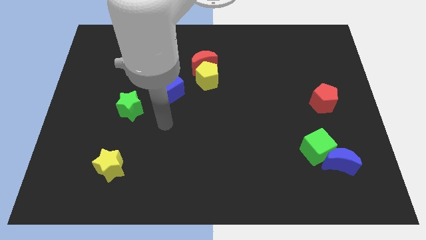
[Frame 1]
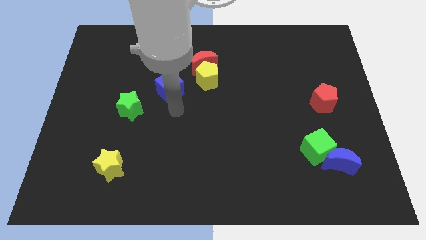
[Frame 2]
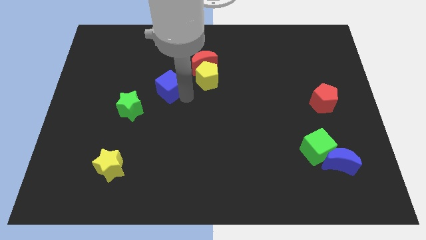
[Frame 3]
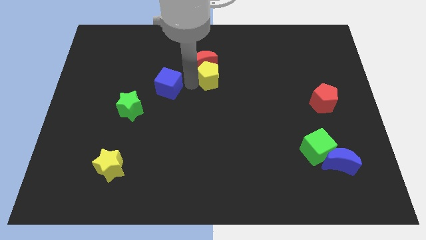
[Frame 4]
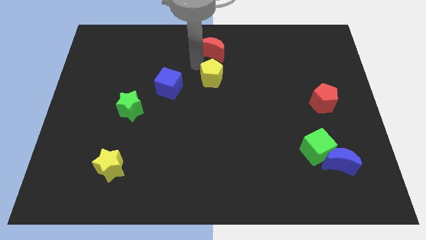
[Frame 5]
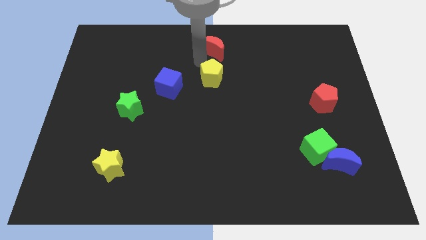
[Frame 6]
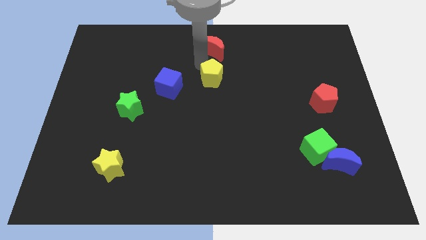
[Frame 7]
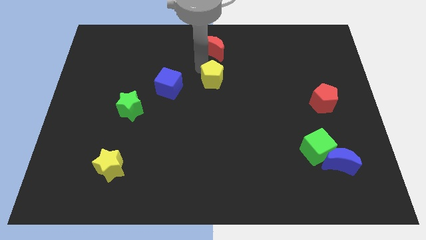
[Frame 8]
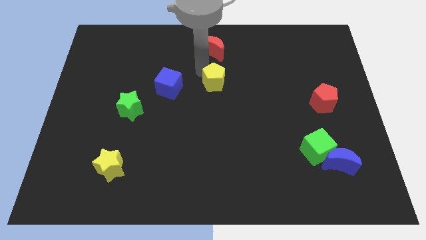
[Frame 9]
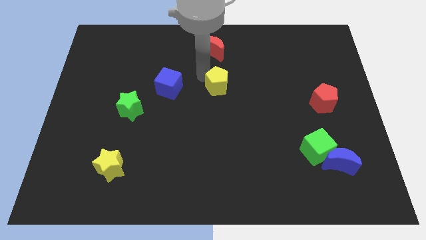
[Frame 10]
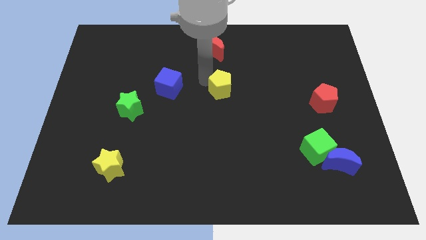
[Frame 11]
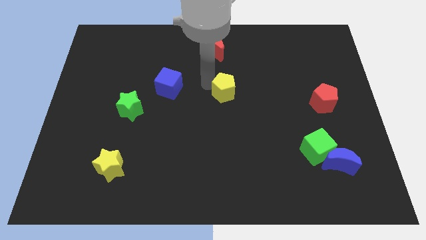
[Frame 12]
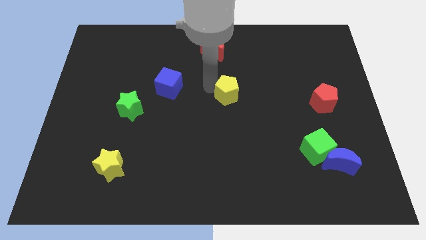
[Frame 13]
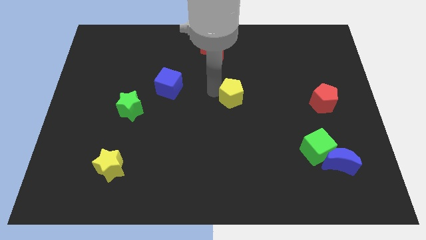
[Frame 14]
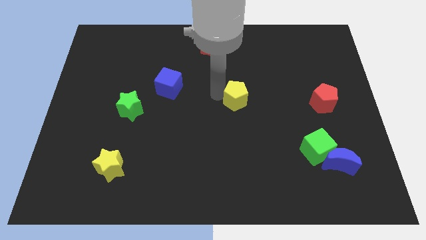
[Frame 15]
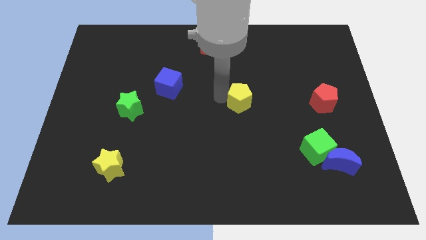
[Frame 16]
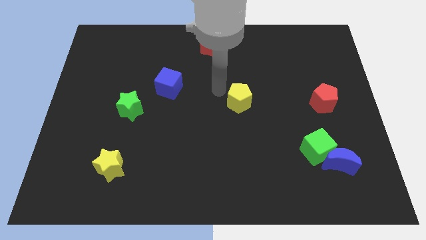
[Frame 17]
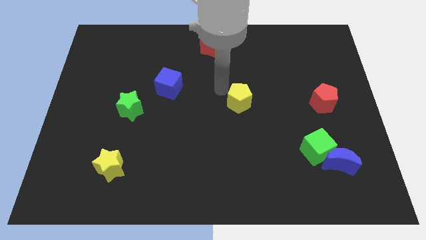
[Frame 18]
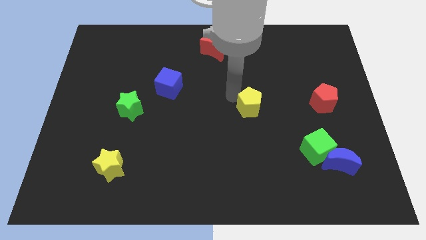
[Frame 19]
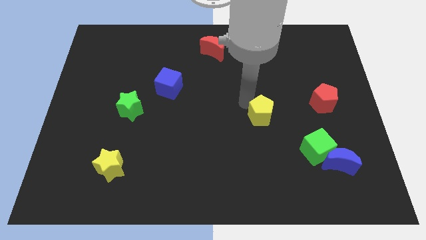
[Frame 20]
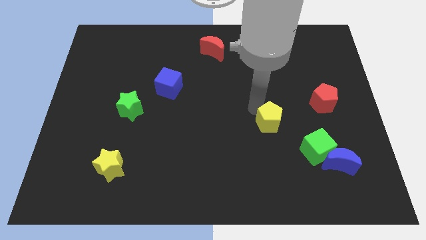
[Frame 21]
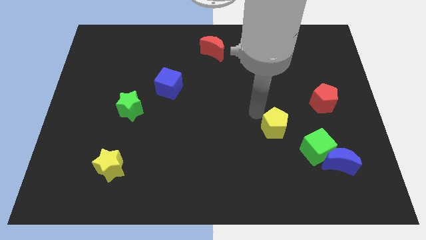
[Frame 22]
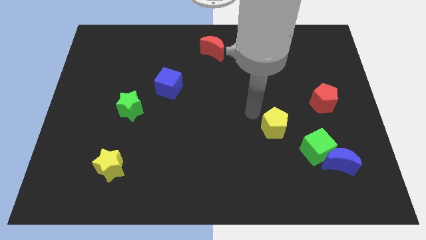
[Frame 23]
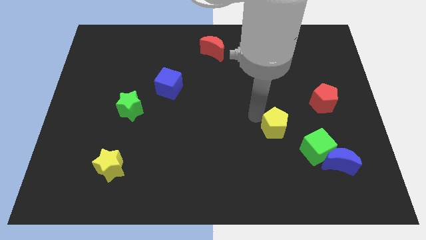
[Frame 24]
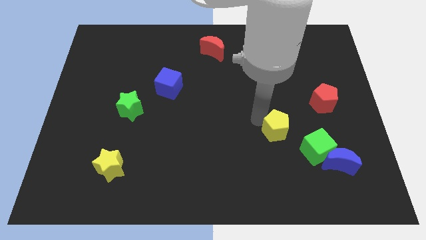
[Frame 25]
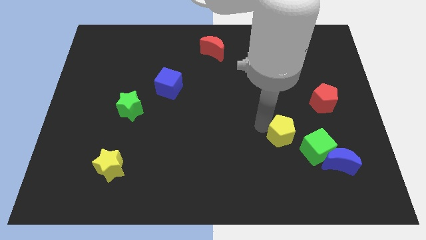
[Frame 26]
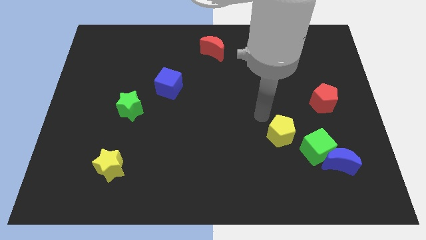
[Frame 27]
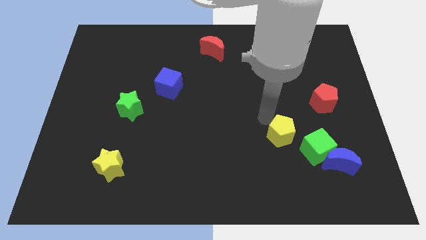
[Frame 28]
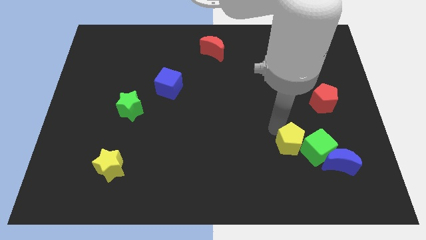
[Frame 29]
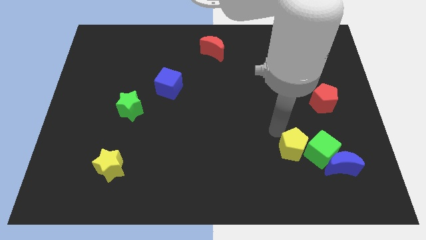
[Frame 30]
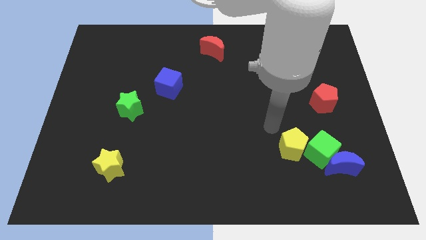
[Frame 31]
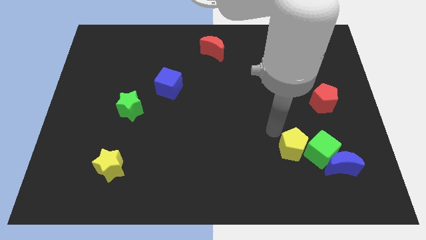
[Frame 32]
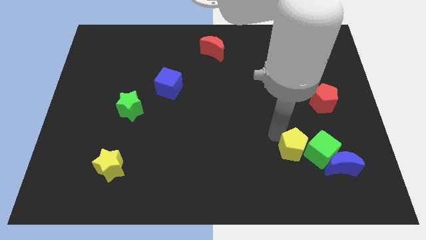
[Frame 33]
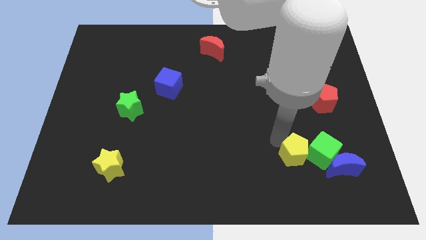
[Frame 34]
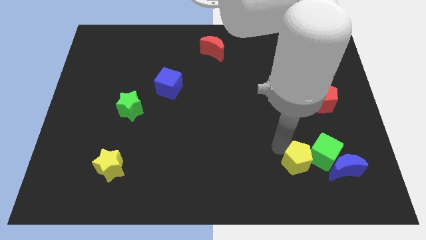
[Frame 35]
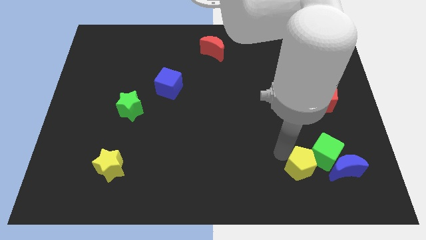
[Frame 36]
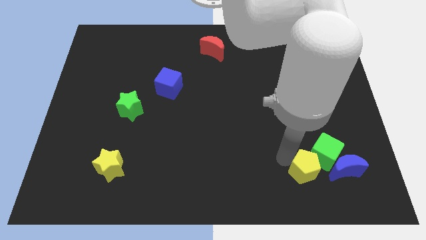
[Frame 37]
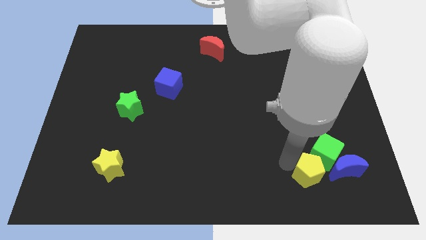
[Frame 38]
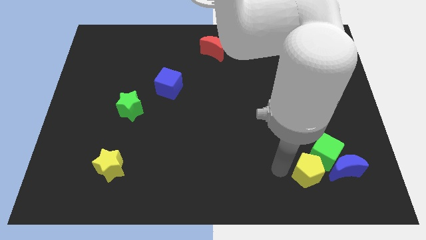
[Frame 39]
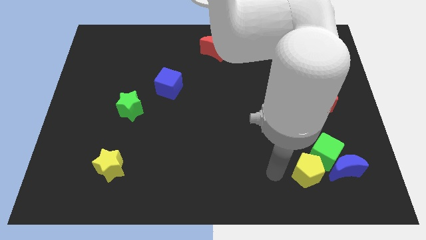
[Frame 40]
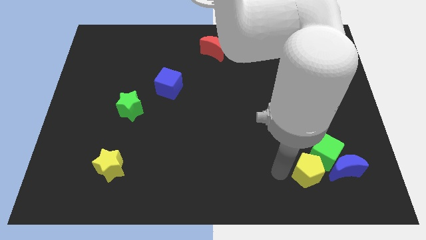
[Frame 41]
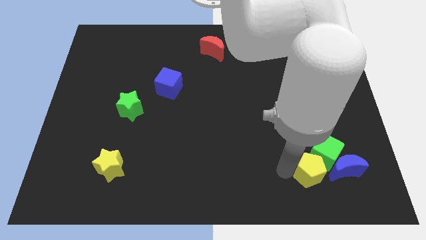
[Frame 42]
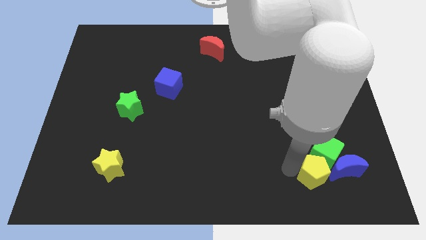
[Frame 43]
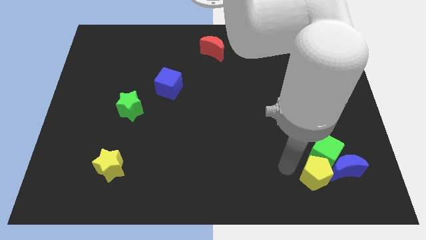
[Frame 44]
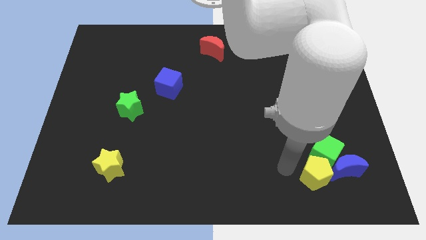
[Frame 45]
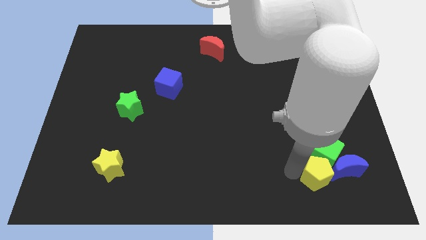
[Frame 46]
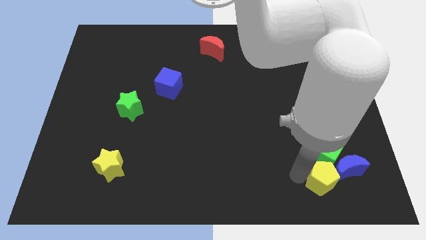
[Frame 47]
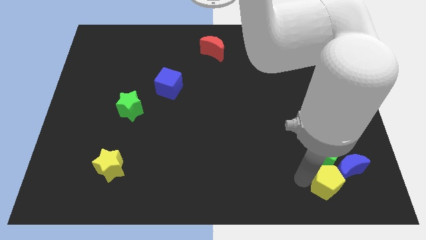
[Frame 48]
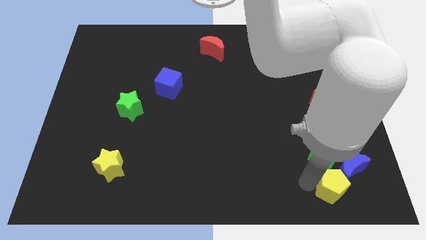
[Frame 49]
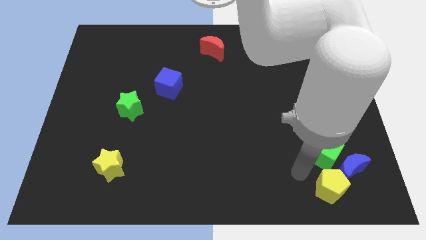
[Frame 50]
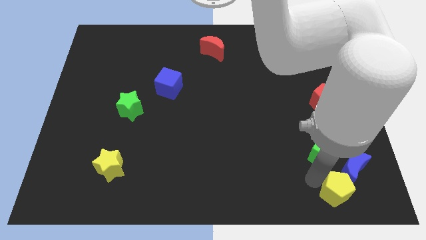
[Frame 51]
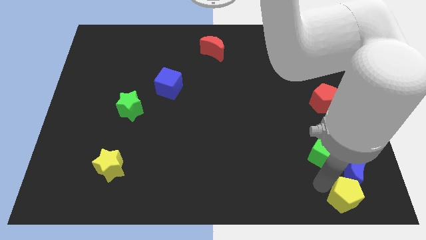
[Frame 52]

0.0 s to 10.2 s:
push the yellow pentagon to the bottom right of the board

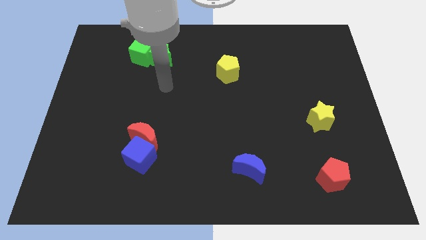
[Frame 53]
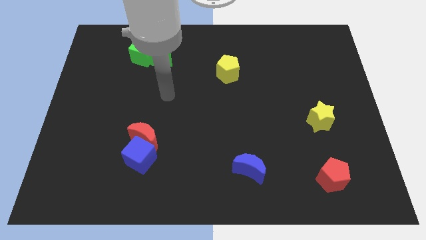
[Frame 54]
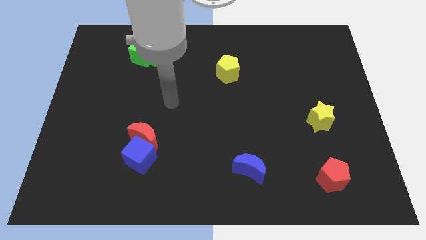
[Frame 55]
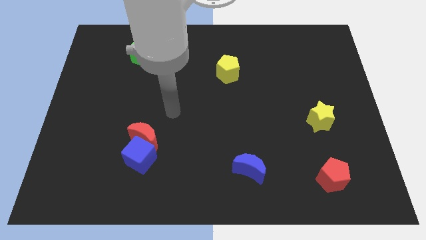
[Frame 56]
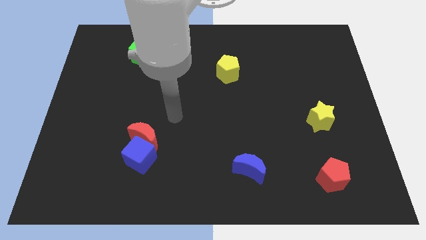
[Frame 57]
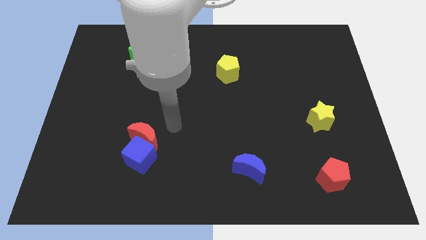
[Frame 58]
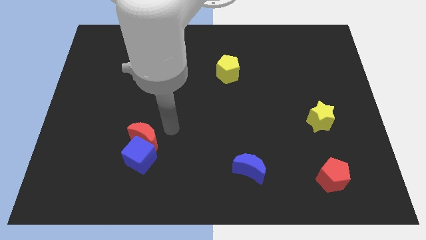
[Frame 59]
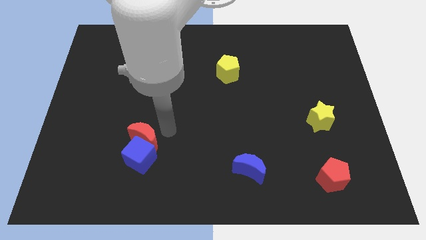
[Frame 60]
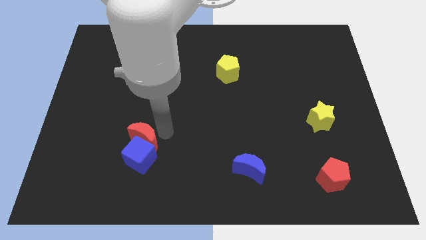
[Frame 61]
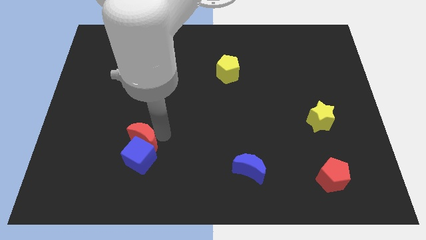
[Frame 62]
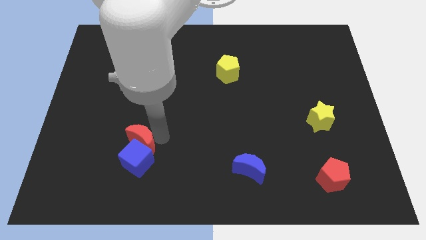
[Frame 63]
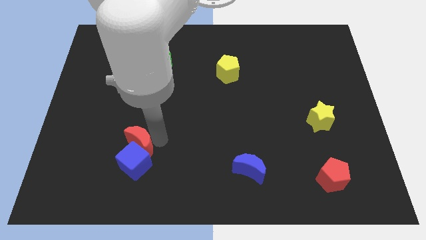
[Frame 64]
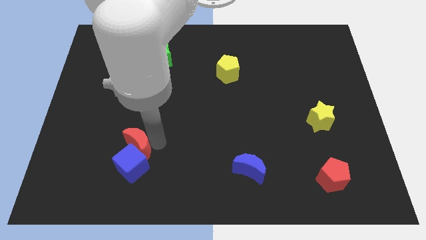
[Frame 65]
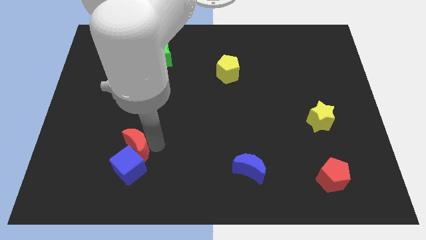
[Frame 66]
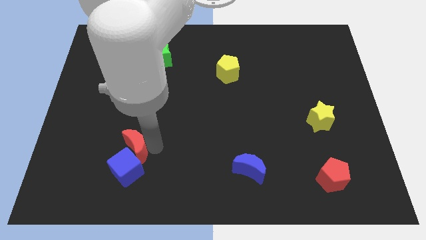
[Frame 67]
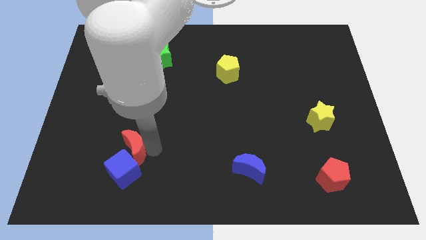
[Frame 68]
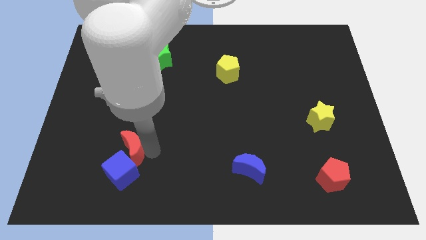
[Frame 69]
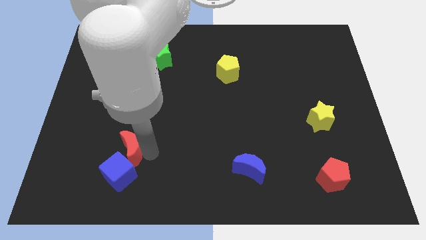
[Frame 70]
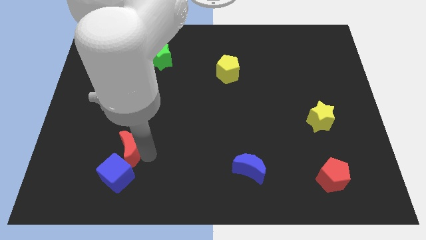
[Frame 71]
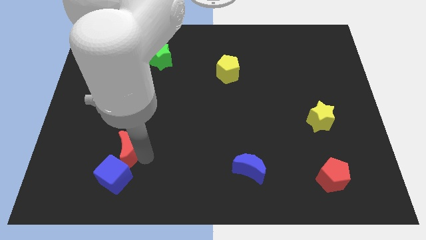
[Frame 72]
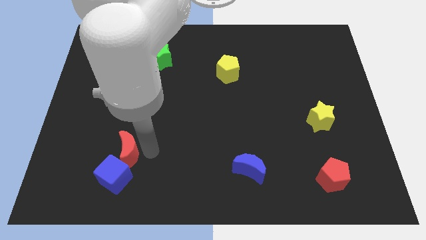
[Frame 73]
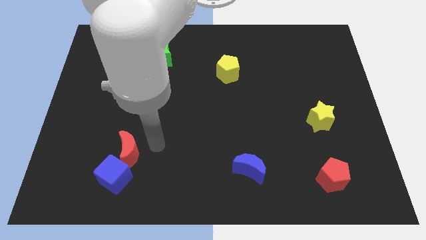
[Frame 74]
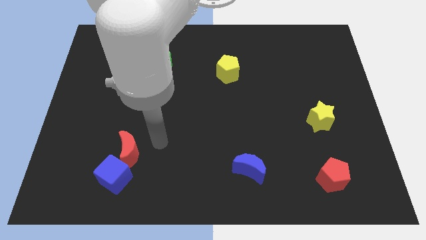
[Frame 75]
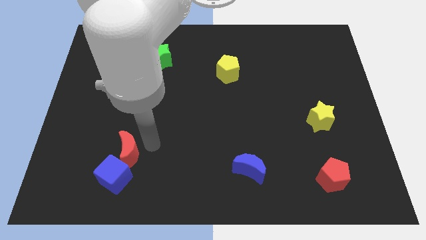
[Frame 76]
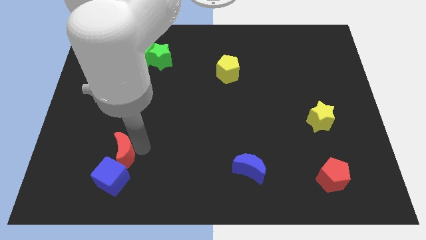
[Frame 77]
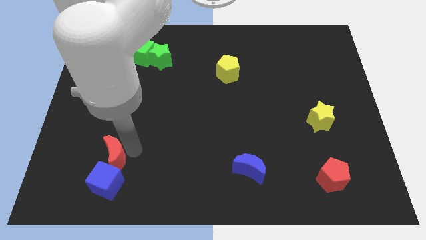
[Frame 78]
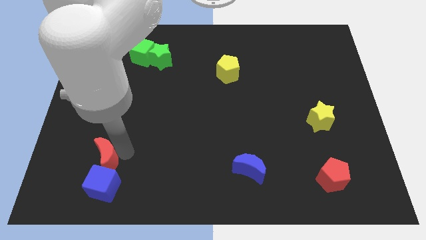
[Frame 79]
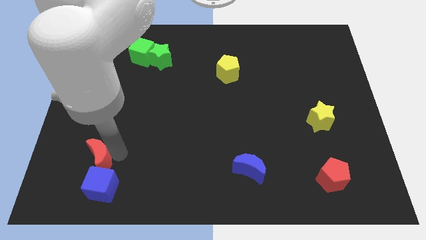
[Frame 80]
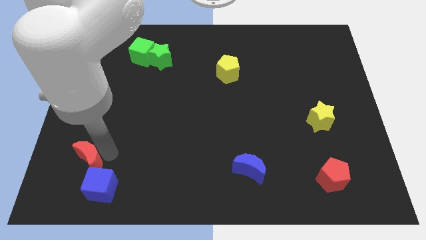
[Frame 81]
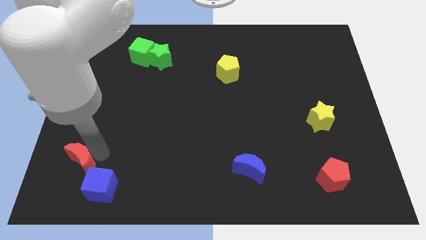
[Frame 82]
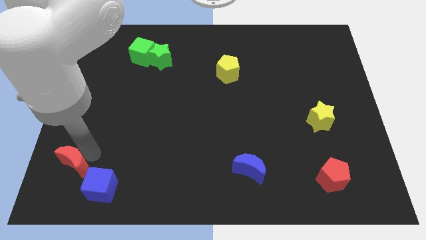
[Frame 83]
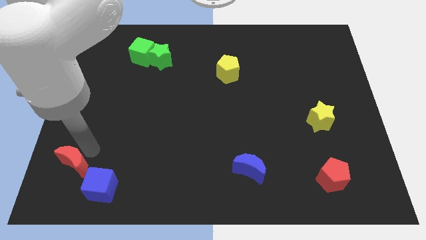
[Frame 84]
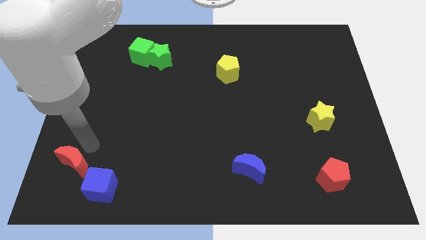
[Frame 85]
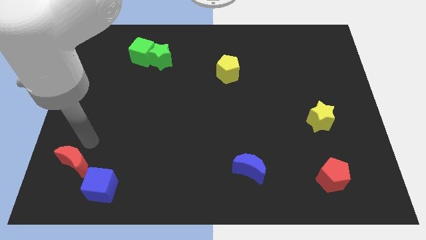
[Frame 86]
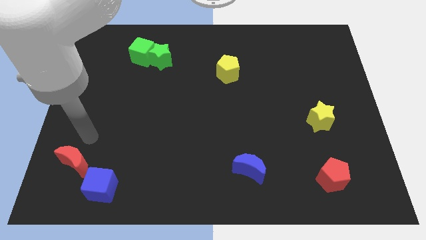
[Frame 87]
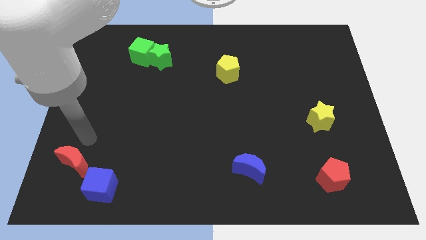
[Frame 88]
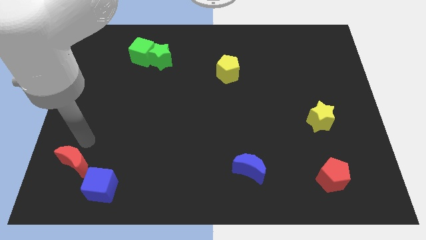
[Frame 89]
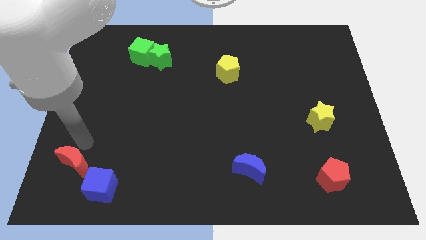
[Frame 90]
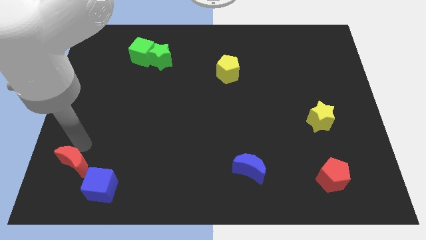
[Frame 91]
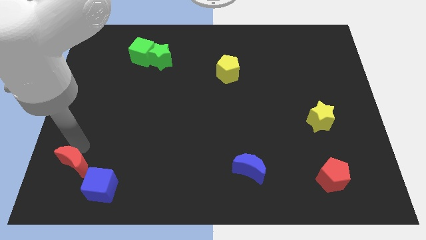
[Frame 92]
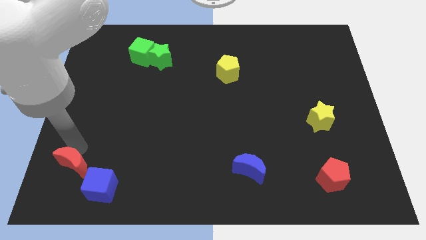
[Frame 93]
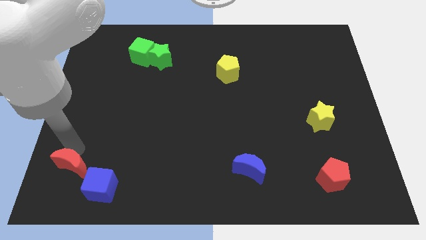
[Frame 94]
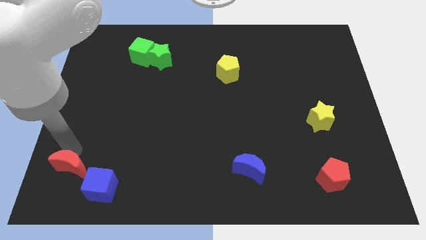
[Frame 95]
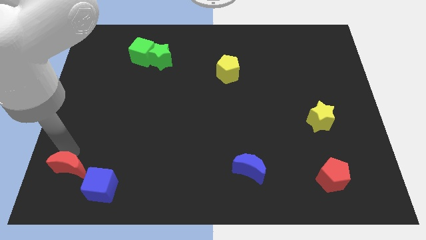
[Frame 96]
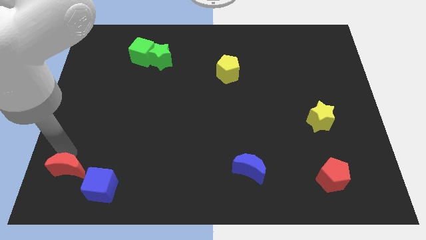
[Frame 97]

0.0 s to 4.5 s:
move the red moon to the bottom left
